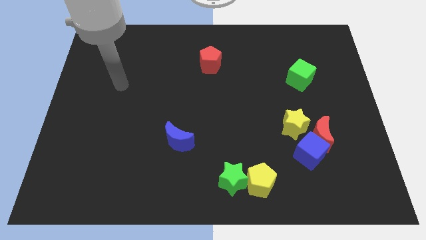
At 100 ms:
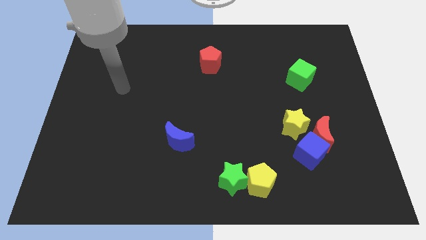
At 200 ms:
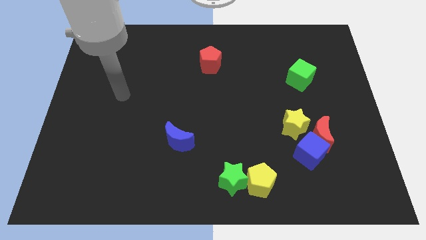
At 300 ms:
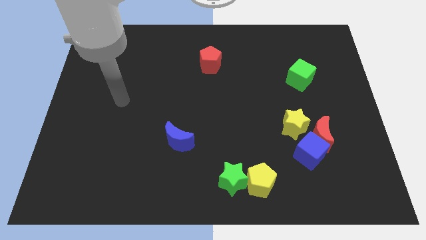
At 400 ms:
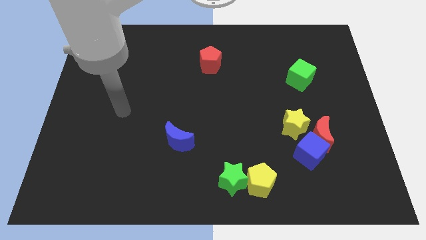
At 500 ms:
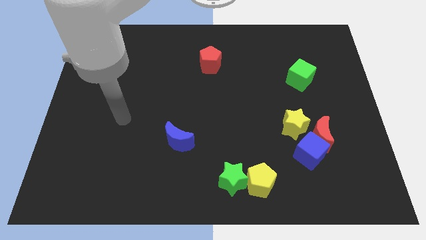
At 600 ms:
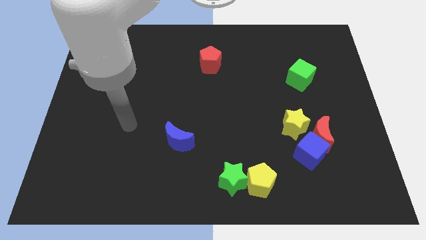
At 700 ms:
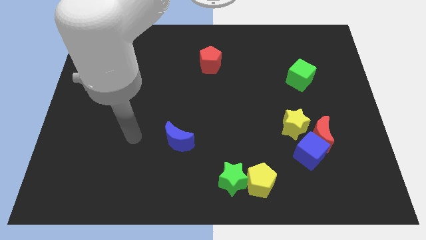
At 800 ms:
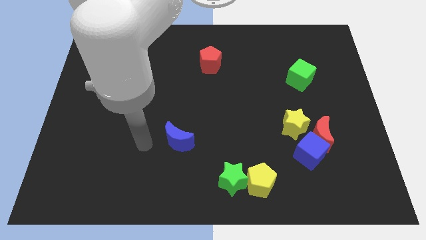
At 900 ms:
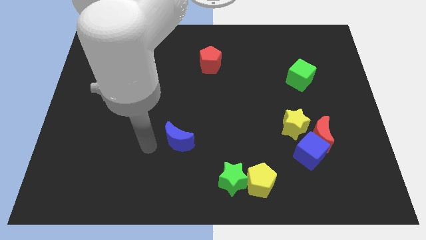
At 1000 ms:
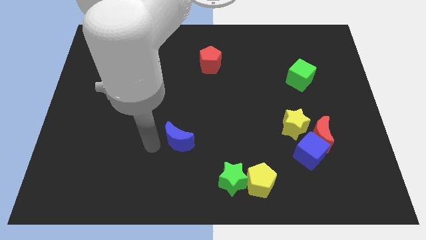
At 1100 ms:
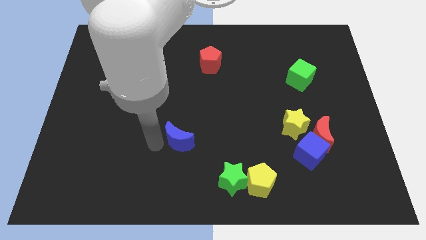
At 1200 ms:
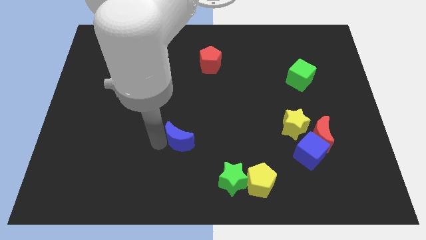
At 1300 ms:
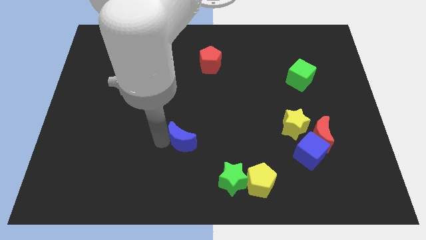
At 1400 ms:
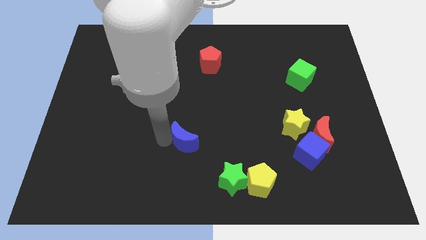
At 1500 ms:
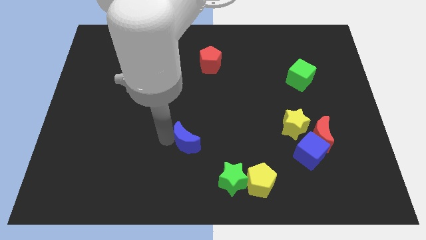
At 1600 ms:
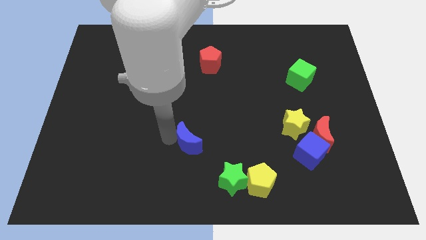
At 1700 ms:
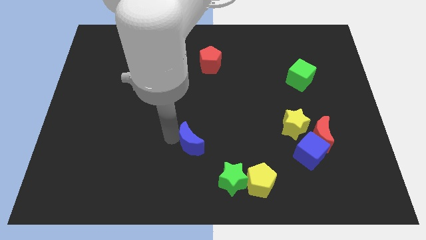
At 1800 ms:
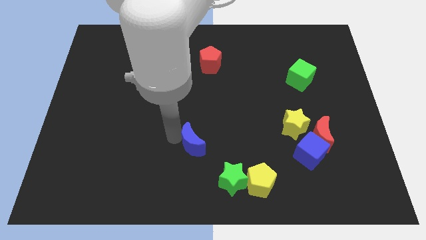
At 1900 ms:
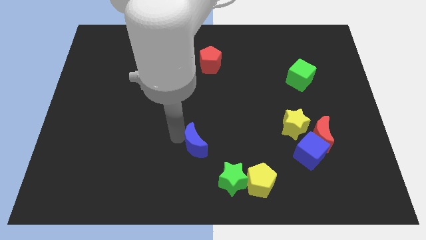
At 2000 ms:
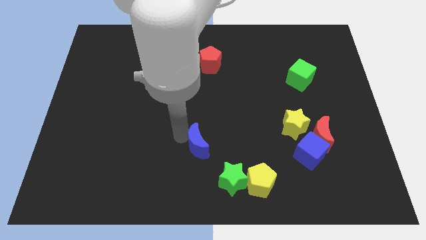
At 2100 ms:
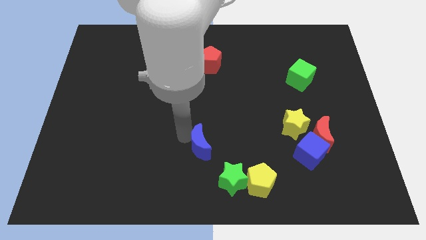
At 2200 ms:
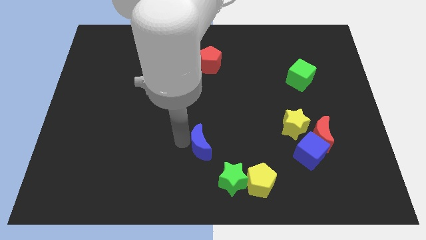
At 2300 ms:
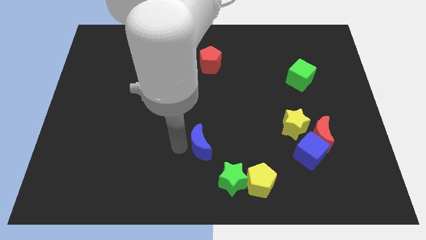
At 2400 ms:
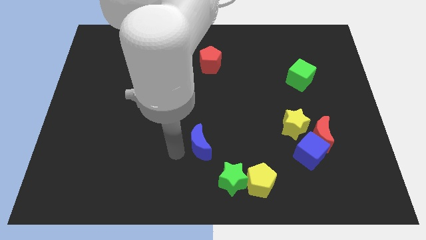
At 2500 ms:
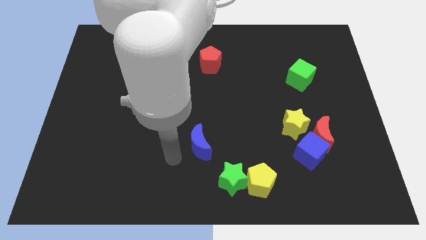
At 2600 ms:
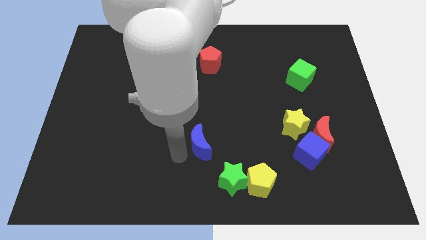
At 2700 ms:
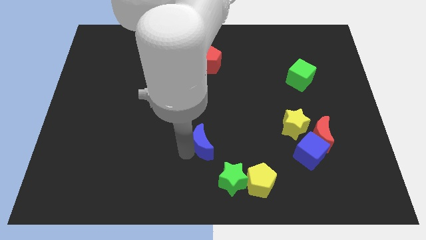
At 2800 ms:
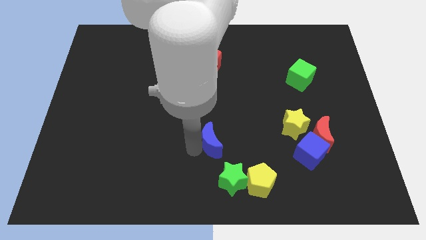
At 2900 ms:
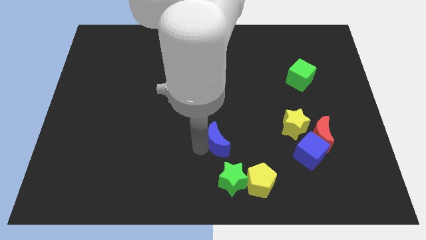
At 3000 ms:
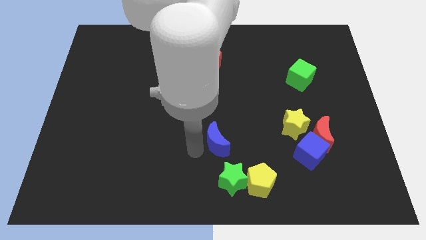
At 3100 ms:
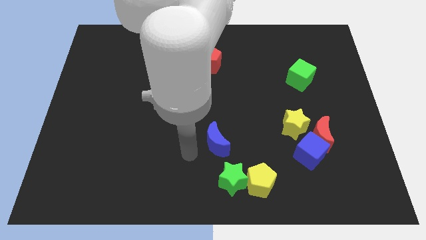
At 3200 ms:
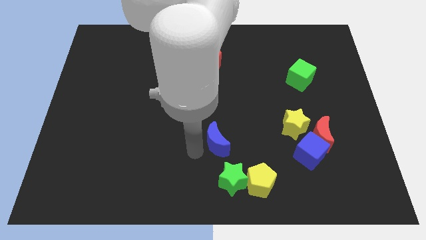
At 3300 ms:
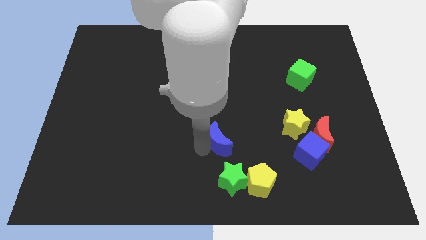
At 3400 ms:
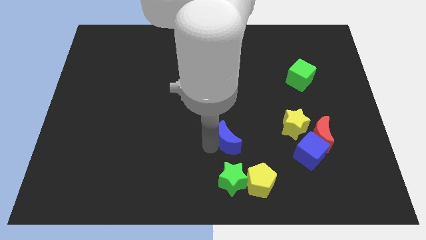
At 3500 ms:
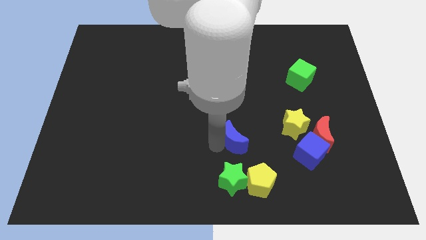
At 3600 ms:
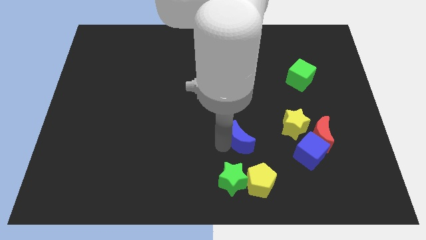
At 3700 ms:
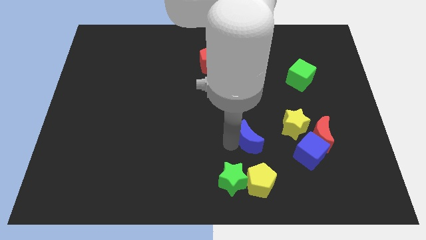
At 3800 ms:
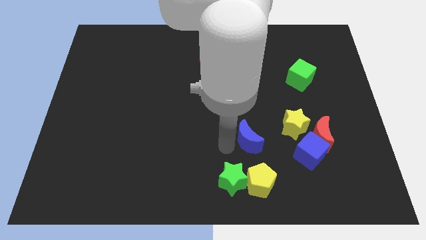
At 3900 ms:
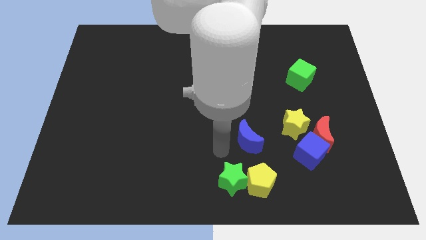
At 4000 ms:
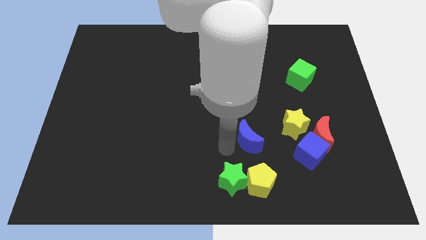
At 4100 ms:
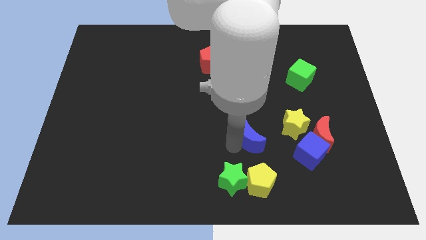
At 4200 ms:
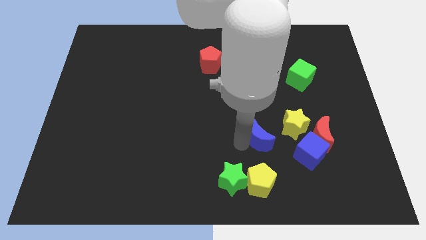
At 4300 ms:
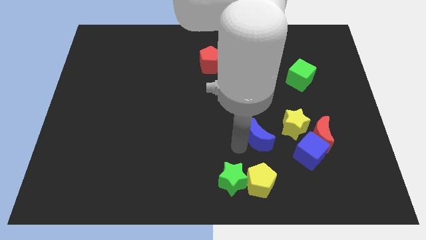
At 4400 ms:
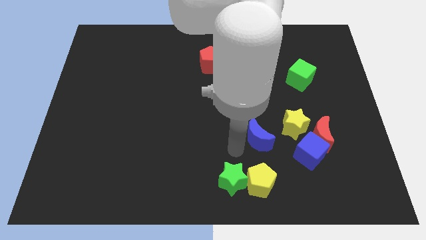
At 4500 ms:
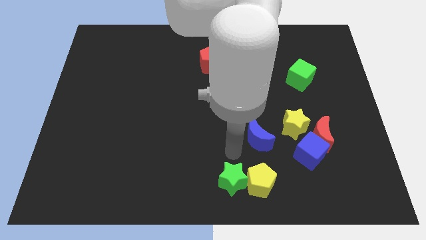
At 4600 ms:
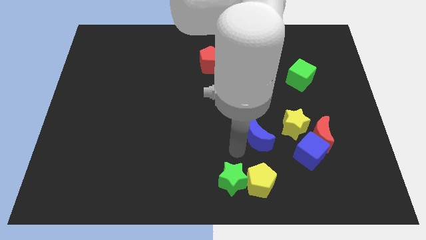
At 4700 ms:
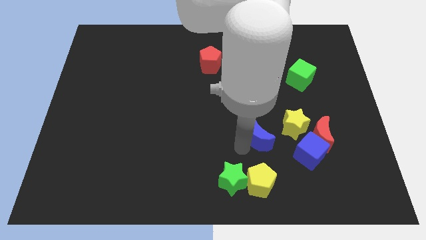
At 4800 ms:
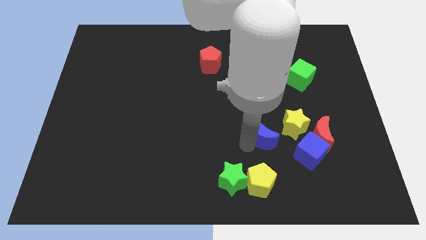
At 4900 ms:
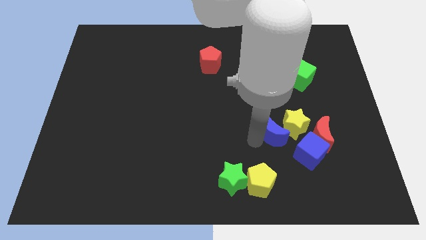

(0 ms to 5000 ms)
move the blue moon next to the yellow star

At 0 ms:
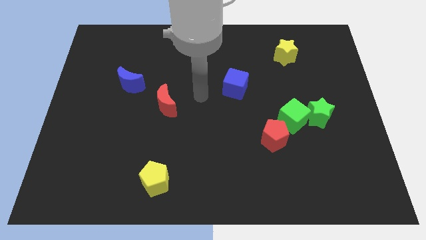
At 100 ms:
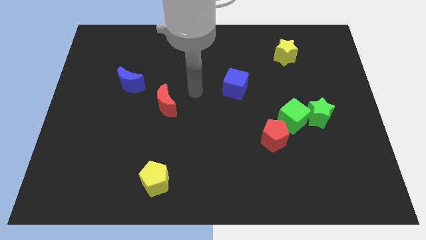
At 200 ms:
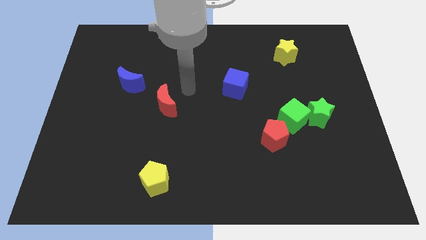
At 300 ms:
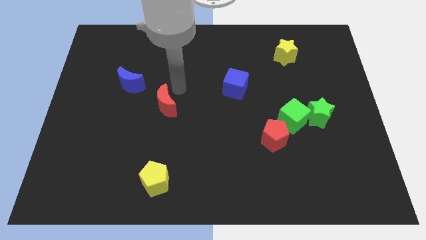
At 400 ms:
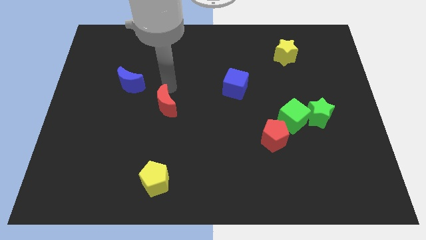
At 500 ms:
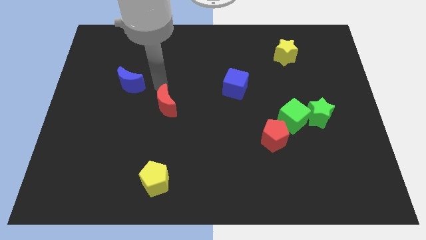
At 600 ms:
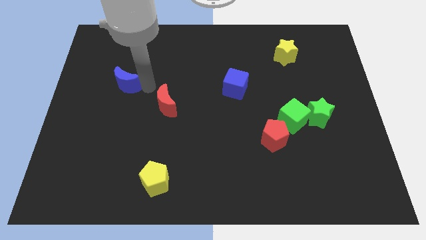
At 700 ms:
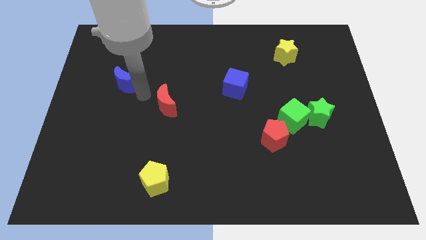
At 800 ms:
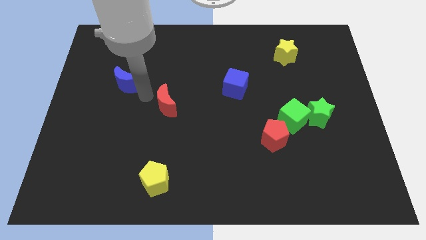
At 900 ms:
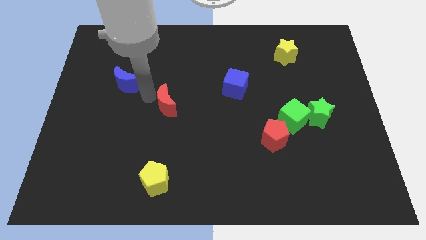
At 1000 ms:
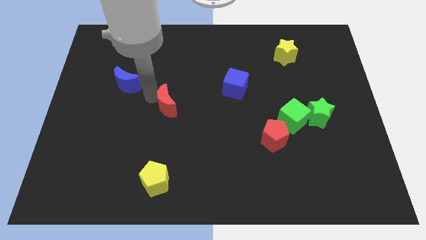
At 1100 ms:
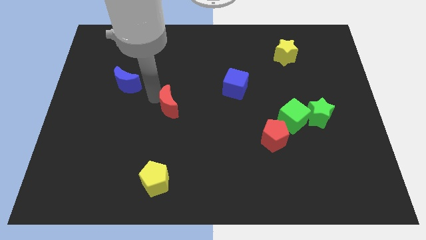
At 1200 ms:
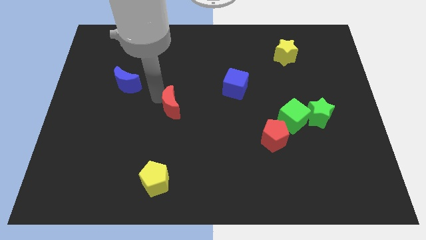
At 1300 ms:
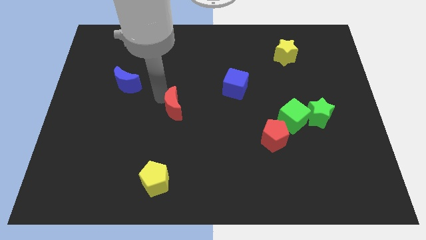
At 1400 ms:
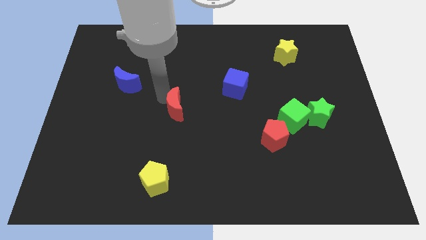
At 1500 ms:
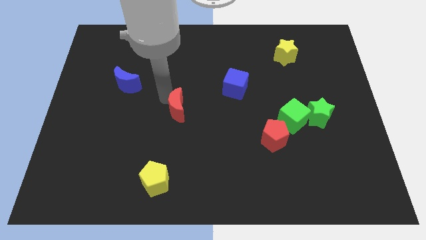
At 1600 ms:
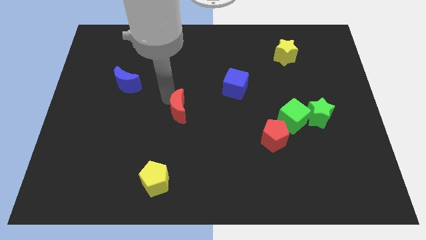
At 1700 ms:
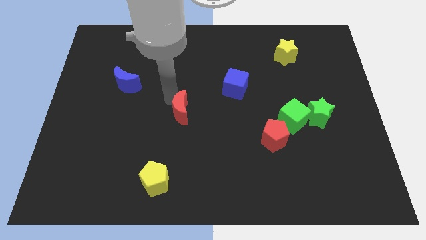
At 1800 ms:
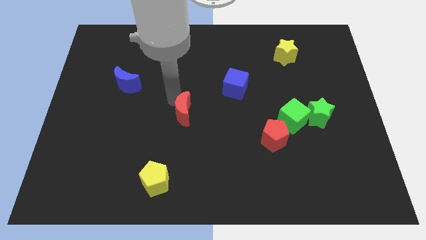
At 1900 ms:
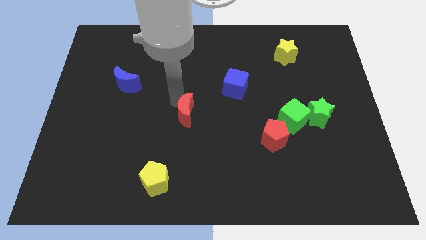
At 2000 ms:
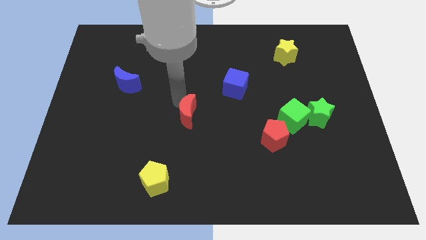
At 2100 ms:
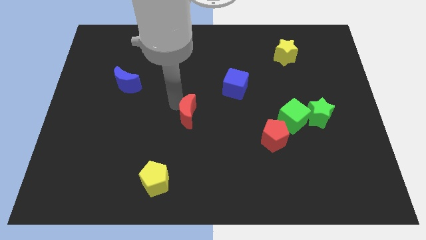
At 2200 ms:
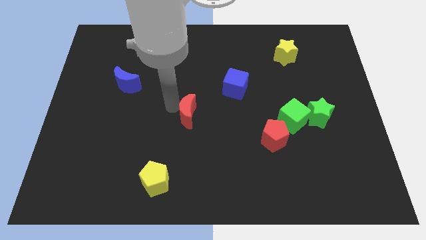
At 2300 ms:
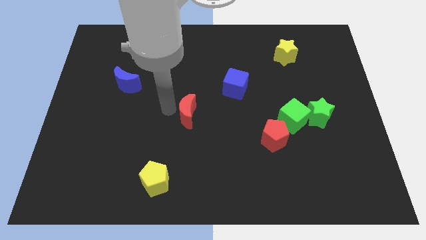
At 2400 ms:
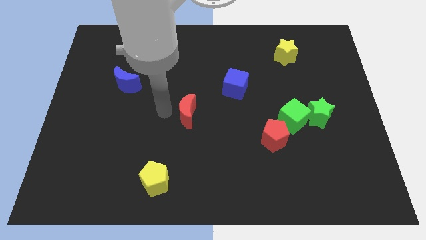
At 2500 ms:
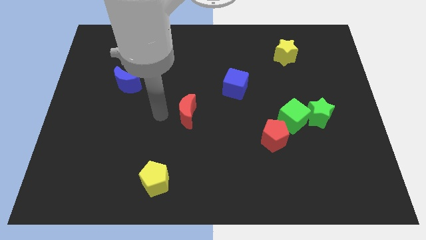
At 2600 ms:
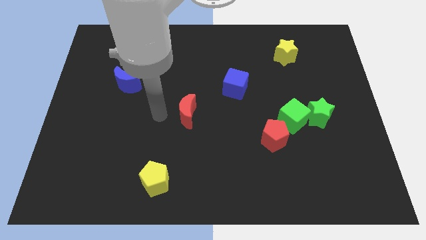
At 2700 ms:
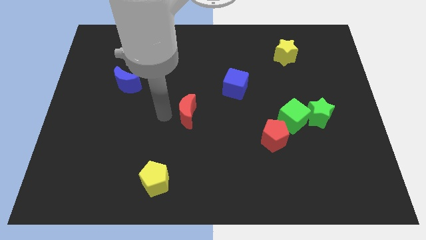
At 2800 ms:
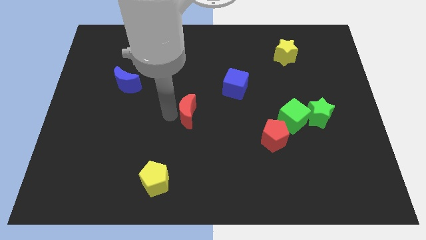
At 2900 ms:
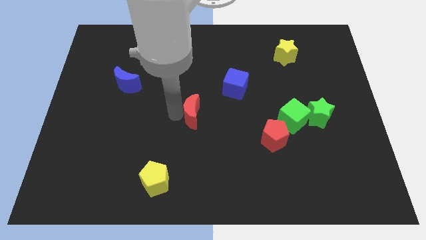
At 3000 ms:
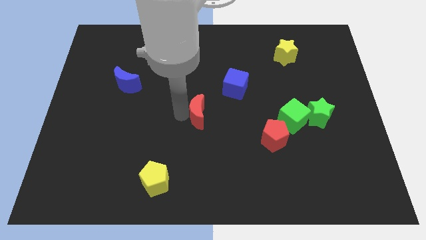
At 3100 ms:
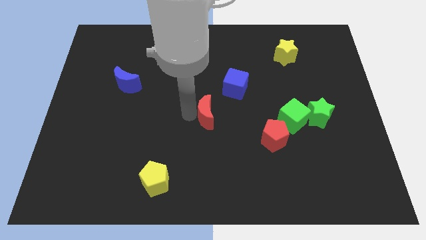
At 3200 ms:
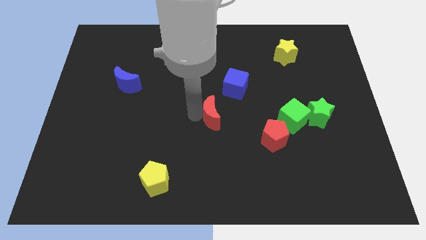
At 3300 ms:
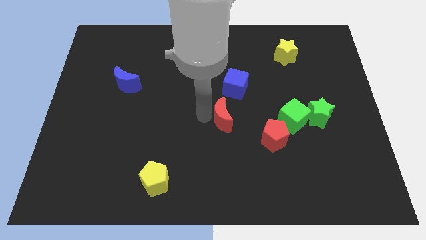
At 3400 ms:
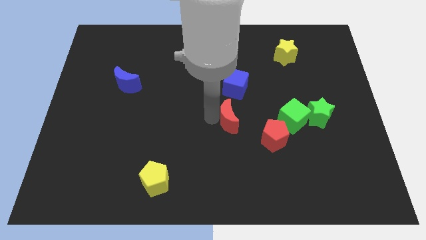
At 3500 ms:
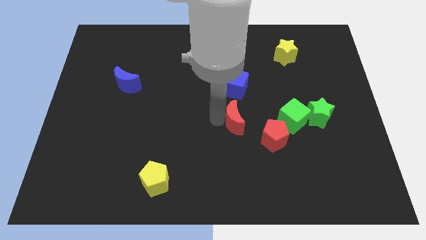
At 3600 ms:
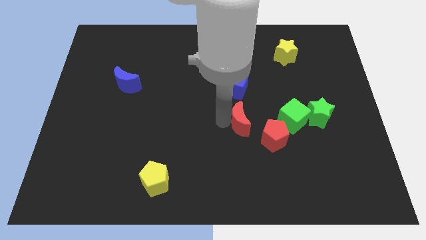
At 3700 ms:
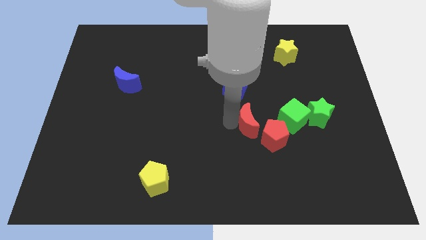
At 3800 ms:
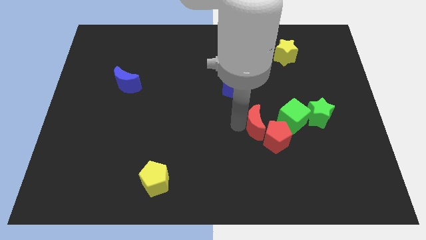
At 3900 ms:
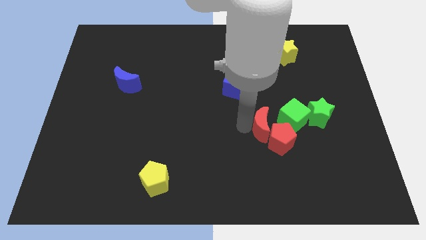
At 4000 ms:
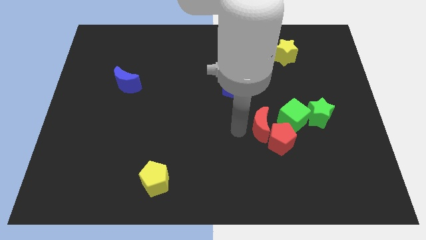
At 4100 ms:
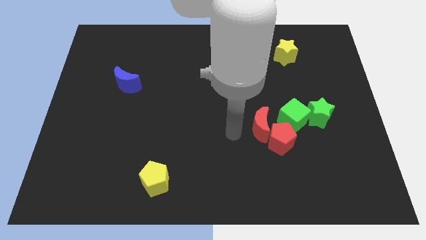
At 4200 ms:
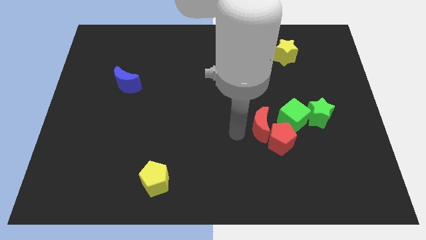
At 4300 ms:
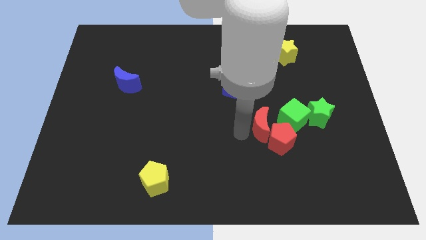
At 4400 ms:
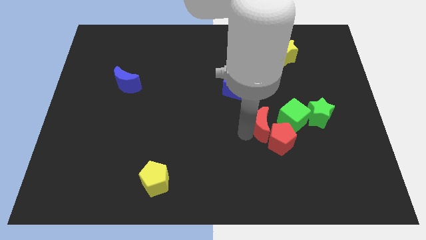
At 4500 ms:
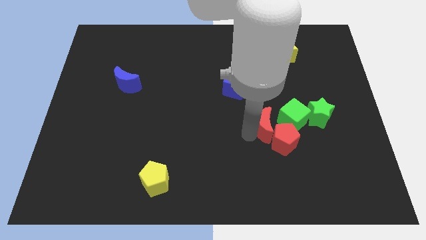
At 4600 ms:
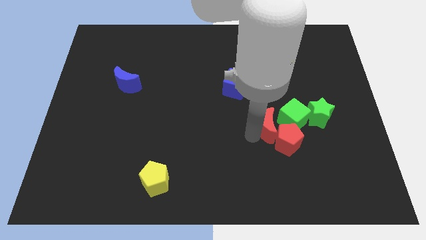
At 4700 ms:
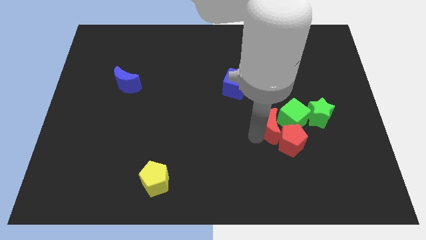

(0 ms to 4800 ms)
put the red moon towards the green cube
